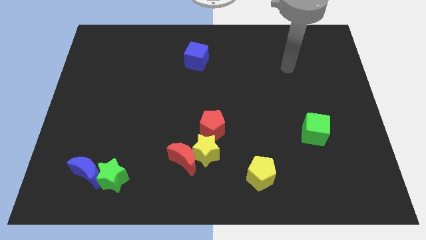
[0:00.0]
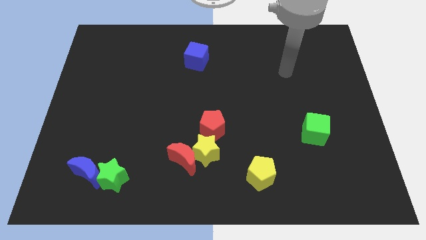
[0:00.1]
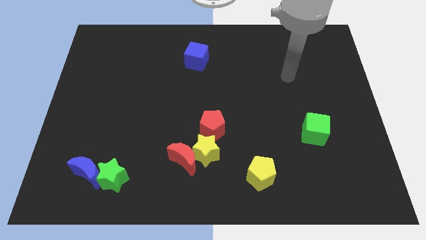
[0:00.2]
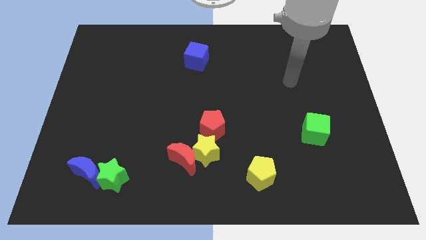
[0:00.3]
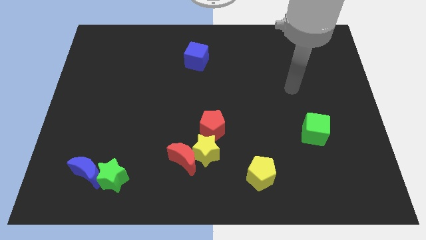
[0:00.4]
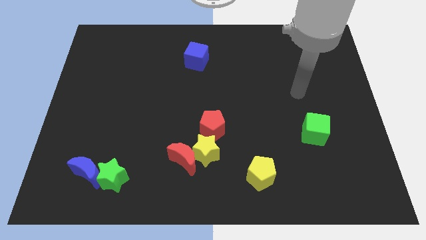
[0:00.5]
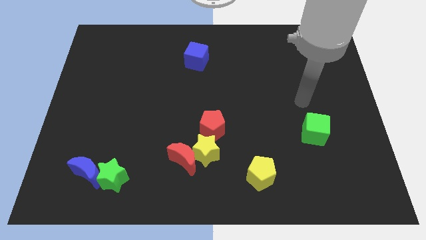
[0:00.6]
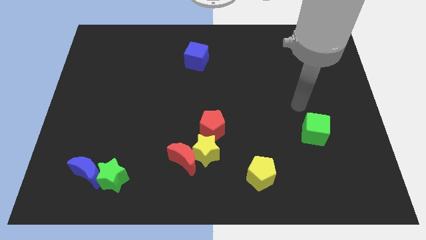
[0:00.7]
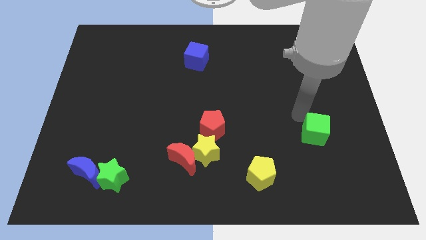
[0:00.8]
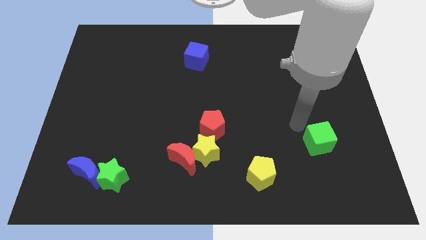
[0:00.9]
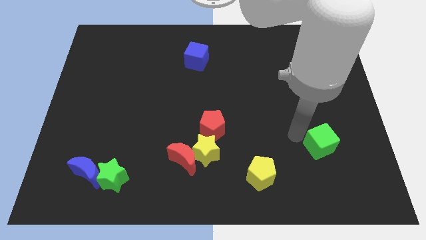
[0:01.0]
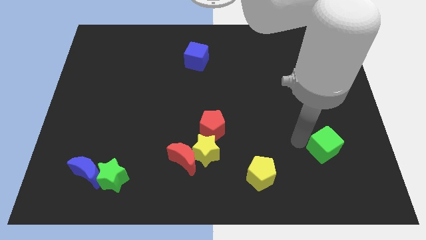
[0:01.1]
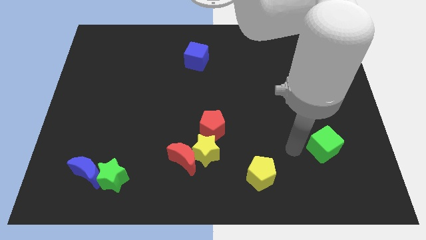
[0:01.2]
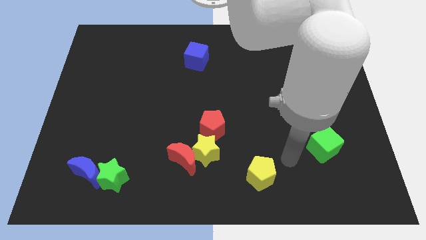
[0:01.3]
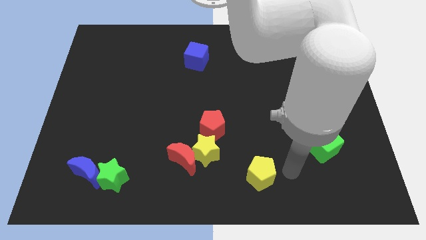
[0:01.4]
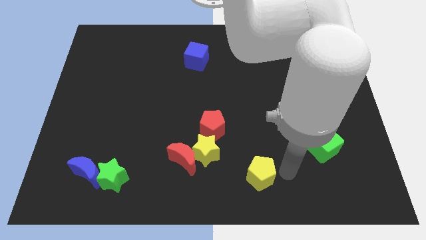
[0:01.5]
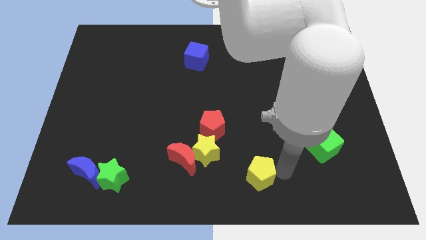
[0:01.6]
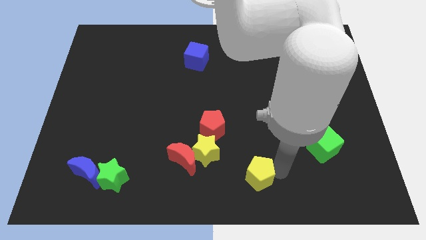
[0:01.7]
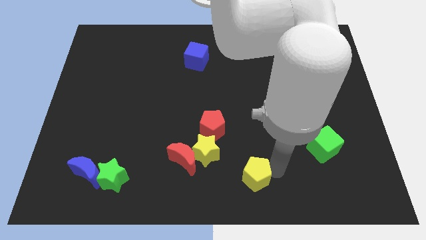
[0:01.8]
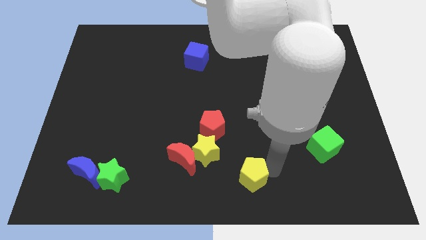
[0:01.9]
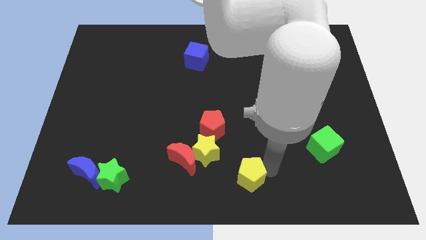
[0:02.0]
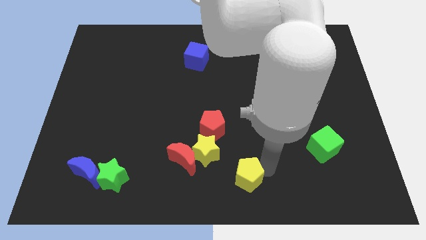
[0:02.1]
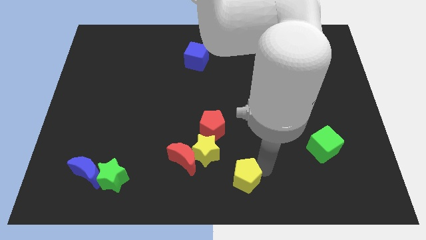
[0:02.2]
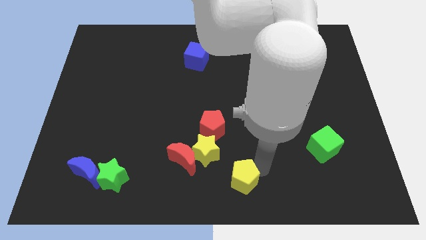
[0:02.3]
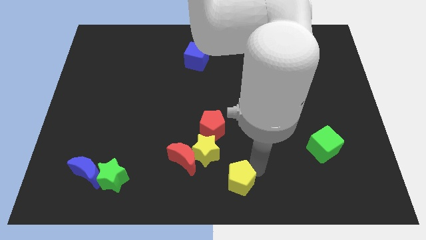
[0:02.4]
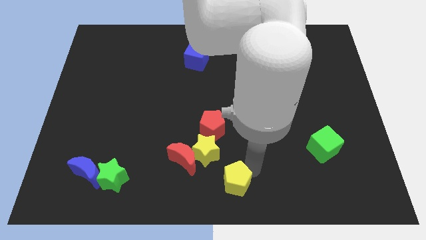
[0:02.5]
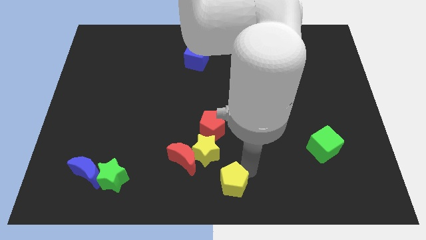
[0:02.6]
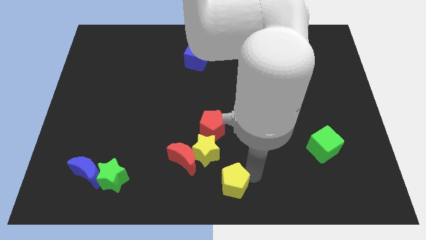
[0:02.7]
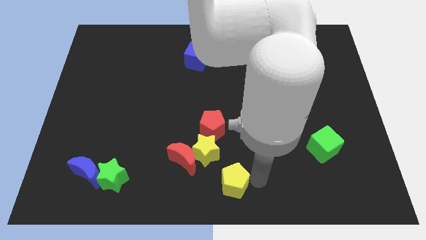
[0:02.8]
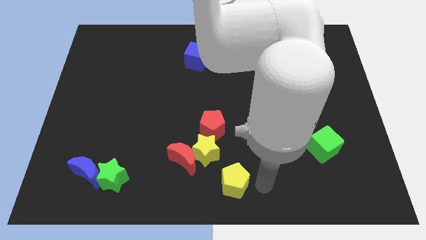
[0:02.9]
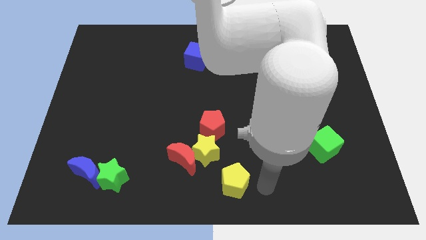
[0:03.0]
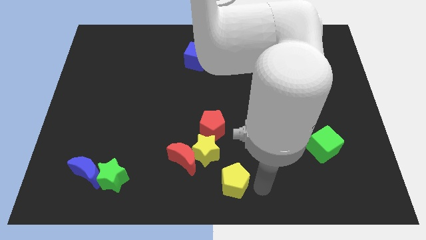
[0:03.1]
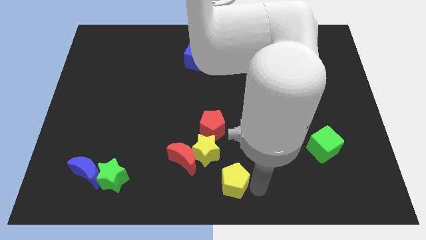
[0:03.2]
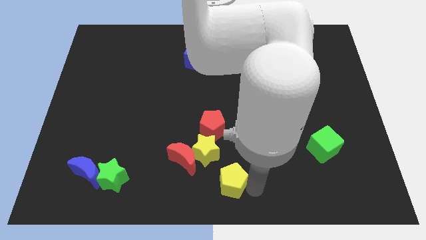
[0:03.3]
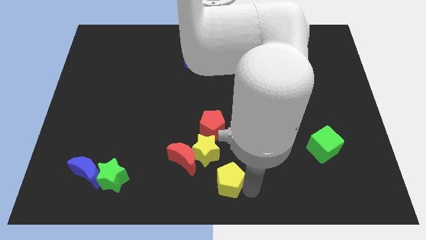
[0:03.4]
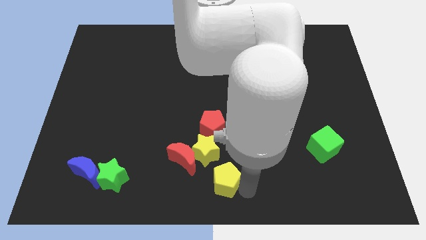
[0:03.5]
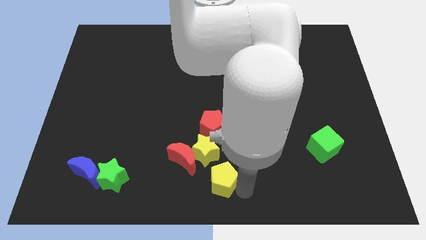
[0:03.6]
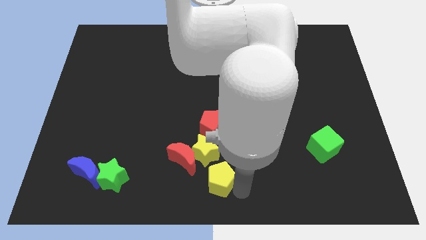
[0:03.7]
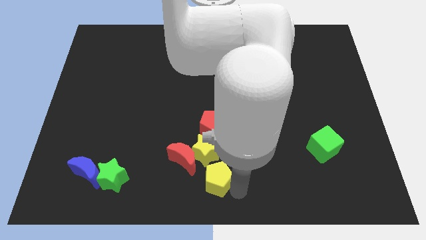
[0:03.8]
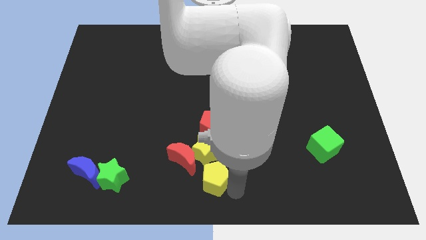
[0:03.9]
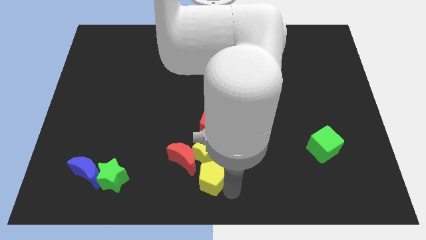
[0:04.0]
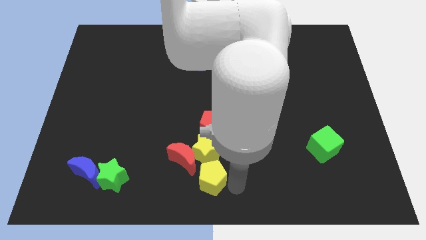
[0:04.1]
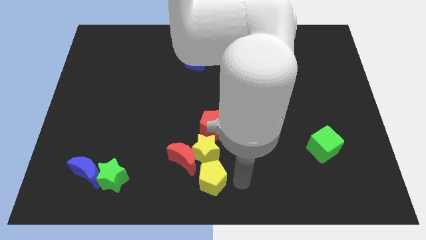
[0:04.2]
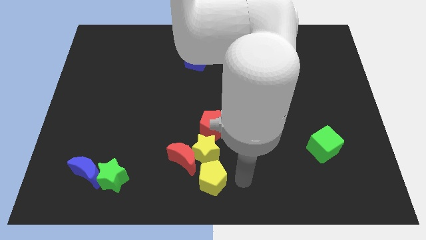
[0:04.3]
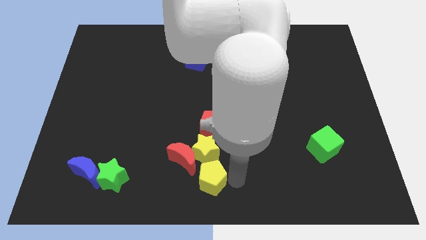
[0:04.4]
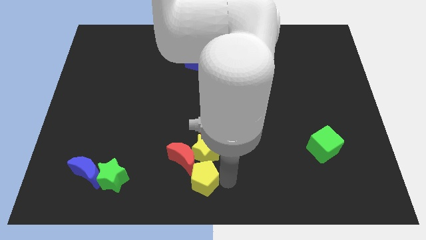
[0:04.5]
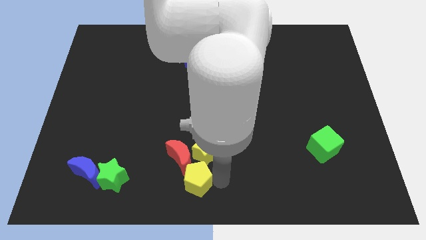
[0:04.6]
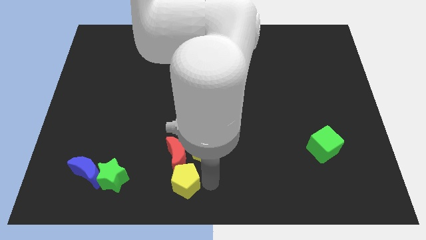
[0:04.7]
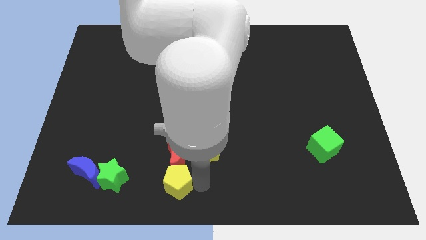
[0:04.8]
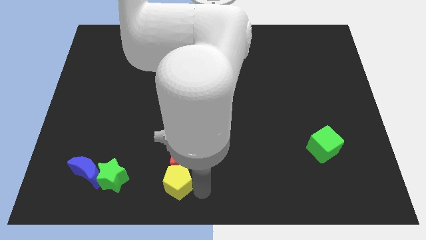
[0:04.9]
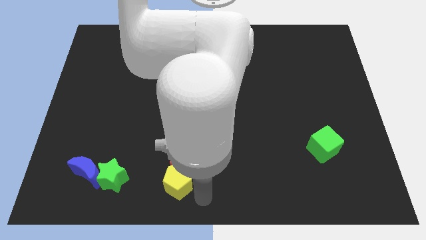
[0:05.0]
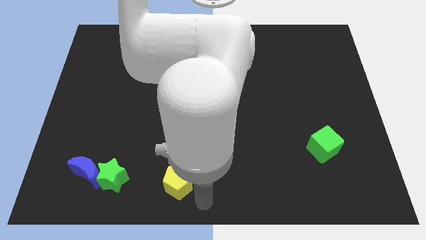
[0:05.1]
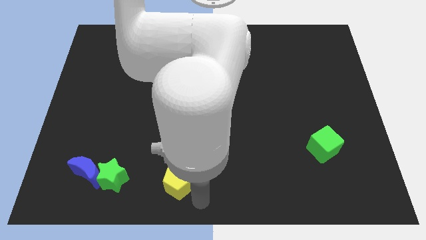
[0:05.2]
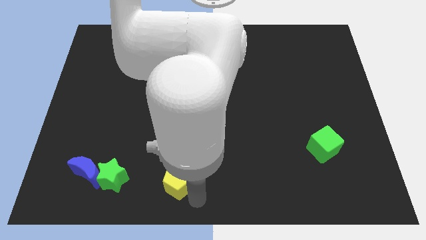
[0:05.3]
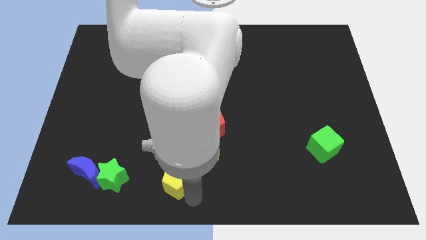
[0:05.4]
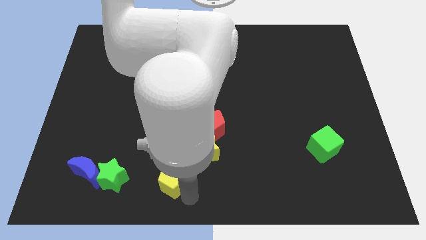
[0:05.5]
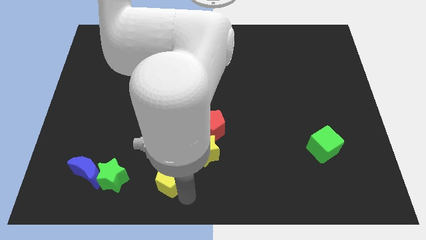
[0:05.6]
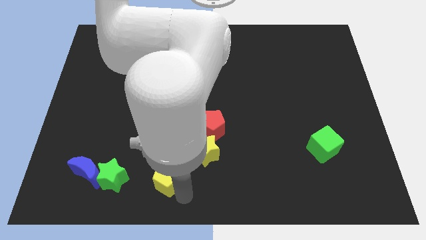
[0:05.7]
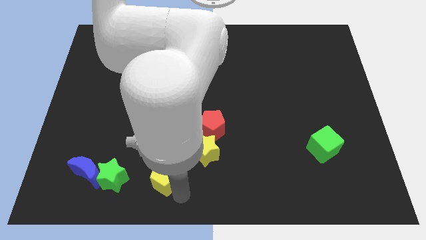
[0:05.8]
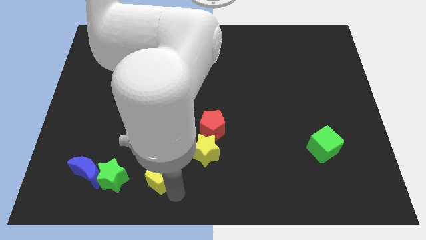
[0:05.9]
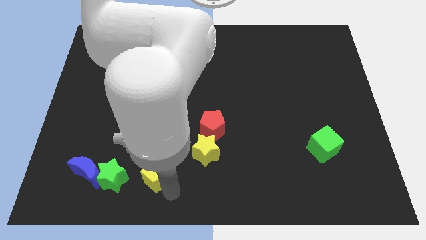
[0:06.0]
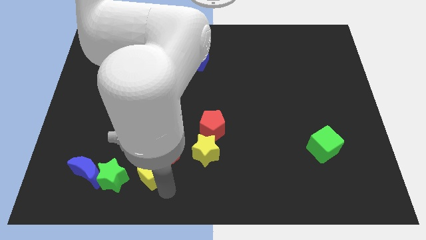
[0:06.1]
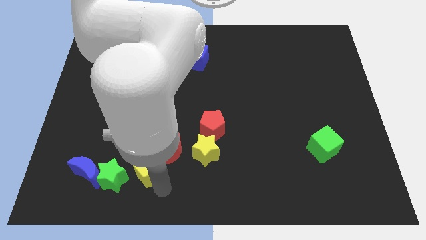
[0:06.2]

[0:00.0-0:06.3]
move the yellow pentagon to the left side of the red moon

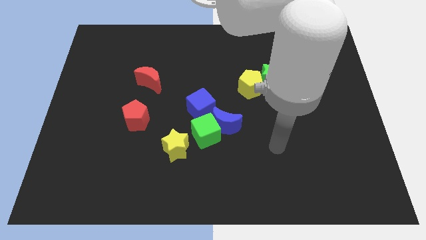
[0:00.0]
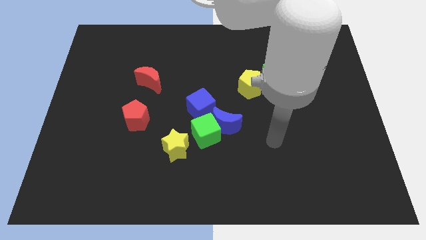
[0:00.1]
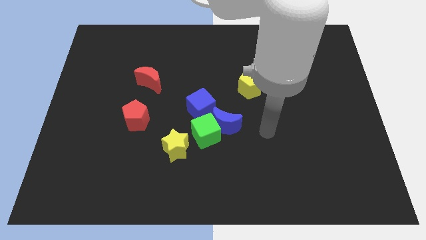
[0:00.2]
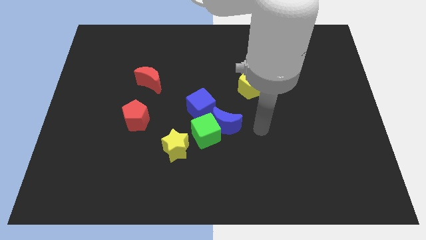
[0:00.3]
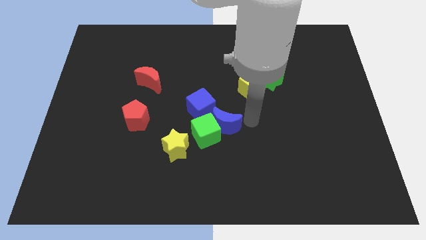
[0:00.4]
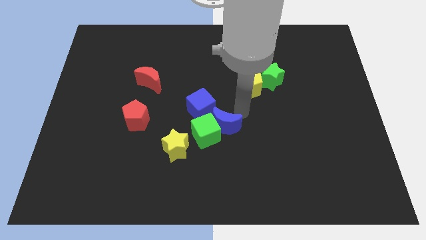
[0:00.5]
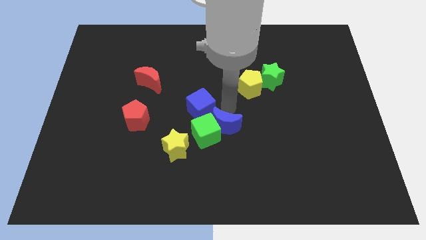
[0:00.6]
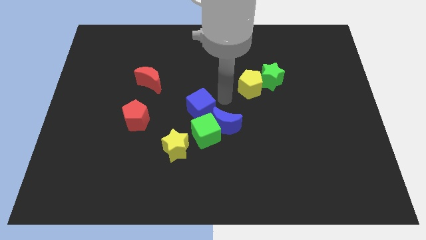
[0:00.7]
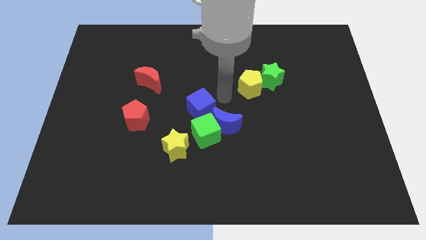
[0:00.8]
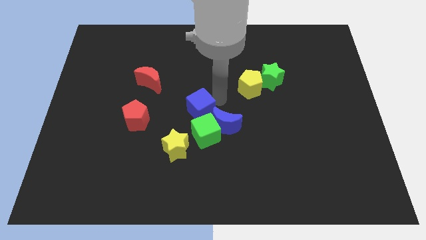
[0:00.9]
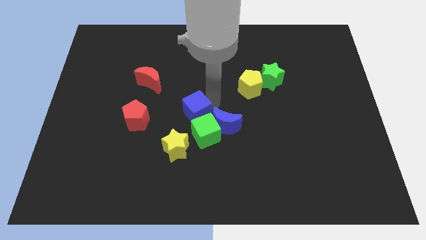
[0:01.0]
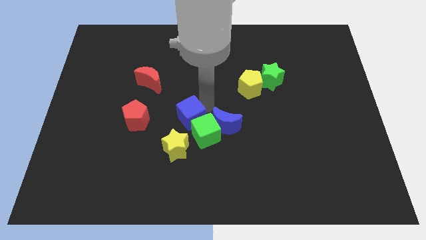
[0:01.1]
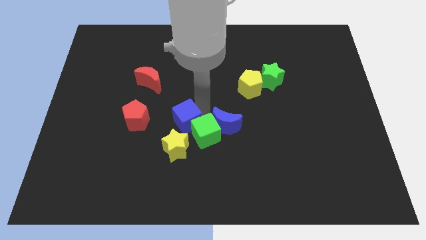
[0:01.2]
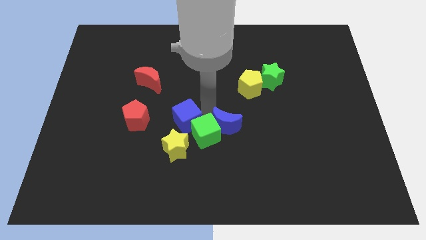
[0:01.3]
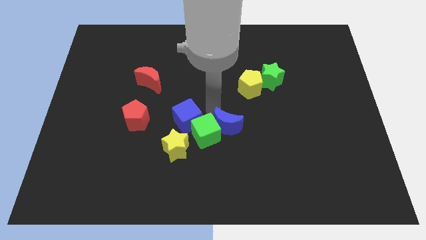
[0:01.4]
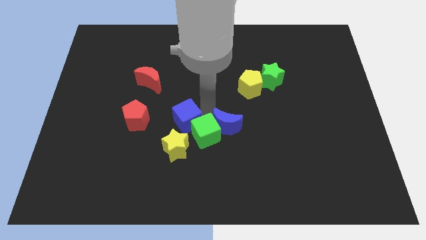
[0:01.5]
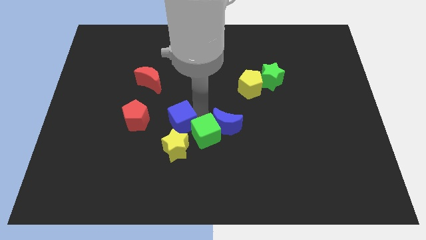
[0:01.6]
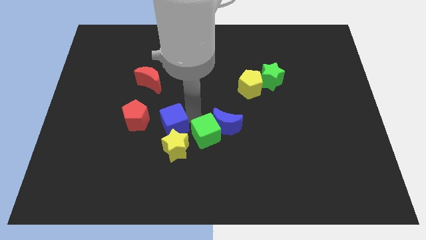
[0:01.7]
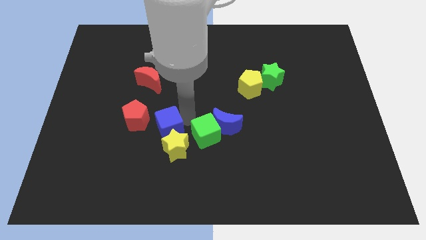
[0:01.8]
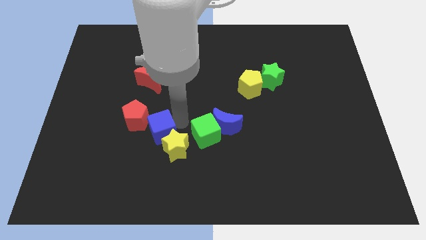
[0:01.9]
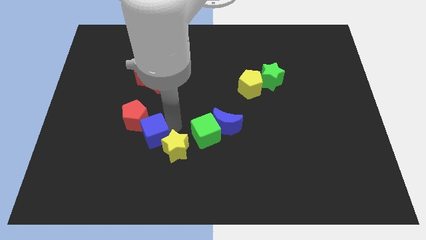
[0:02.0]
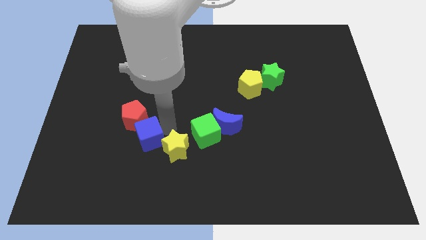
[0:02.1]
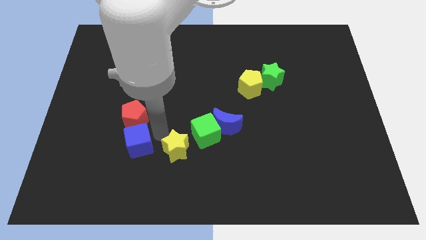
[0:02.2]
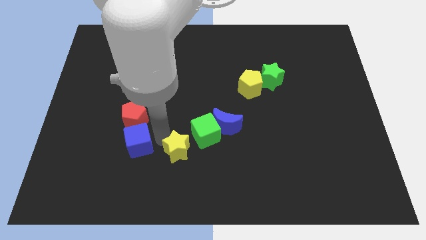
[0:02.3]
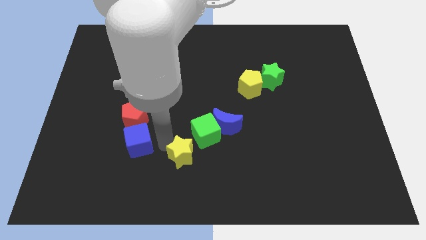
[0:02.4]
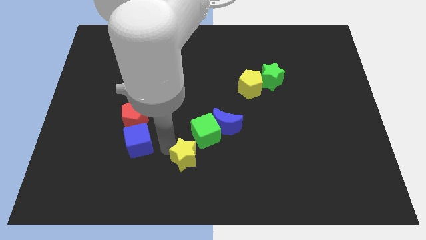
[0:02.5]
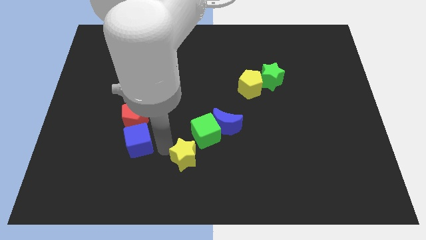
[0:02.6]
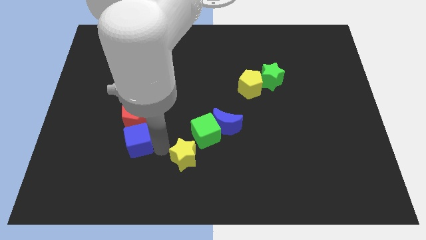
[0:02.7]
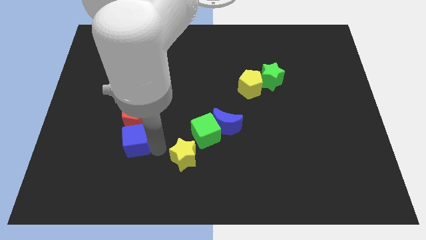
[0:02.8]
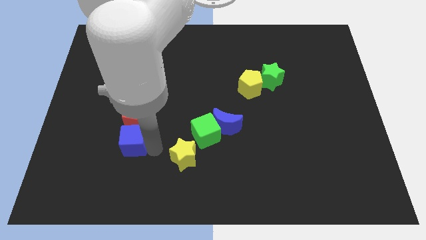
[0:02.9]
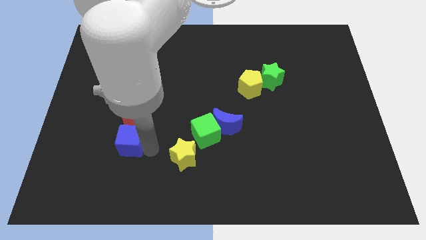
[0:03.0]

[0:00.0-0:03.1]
put the blue cube diagonally down and to the left of the red pentagon
